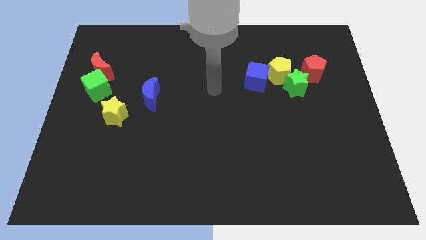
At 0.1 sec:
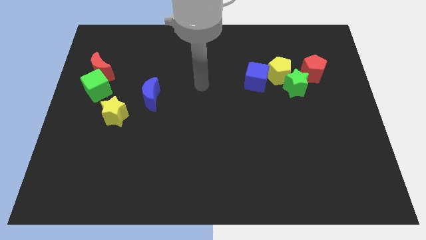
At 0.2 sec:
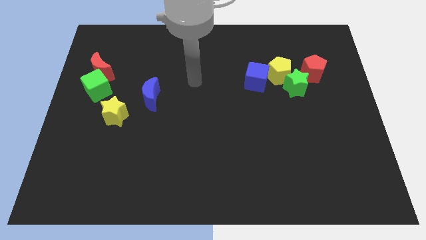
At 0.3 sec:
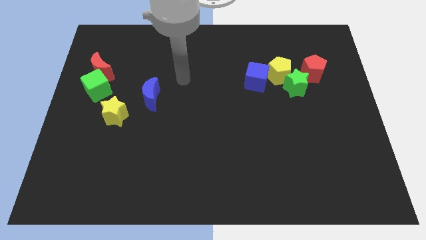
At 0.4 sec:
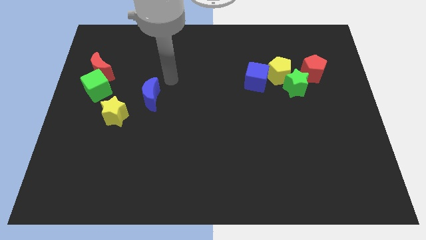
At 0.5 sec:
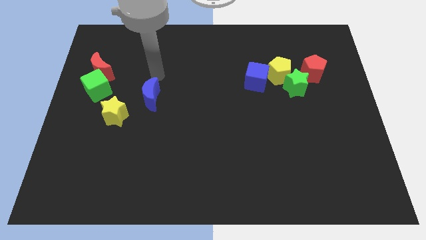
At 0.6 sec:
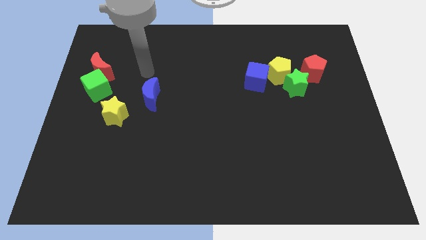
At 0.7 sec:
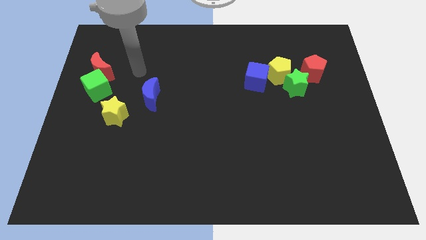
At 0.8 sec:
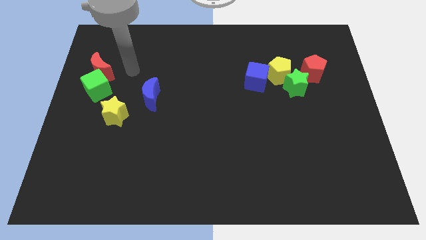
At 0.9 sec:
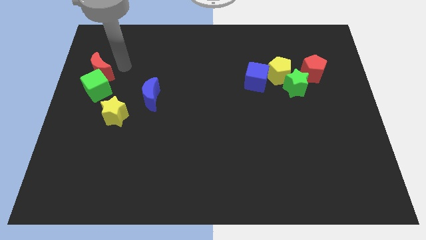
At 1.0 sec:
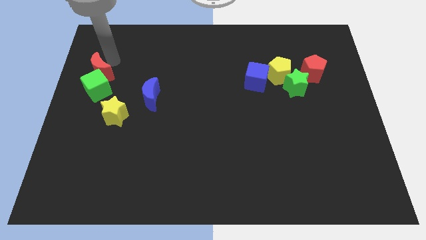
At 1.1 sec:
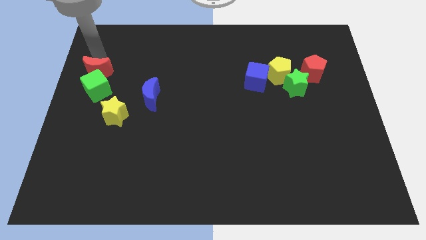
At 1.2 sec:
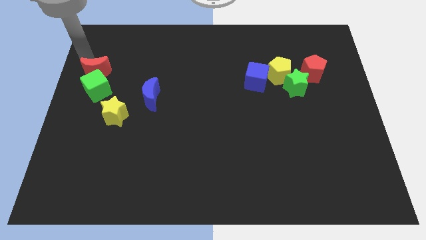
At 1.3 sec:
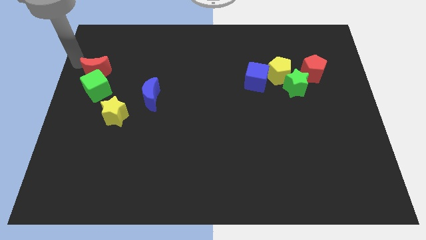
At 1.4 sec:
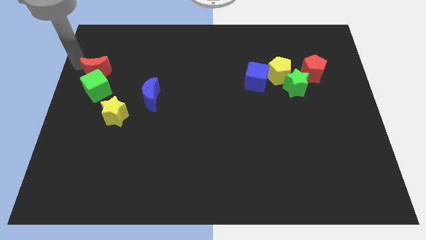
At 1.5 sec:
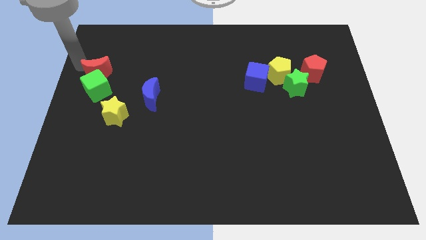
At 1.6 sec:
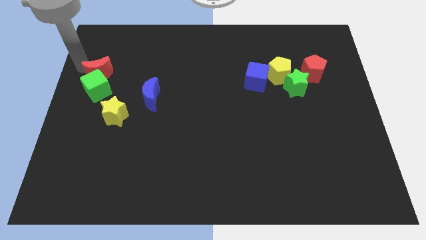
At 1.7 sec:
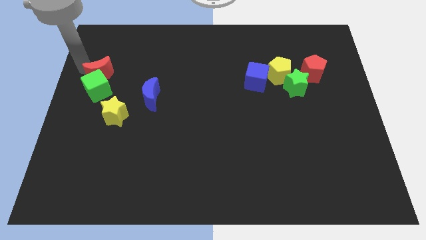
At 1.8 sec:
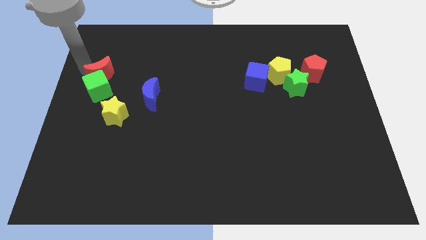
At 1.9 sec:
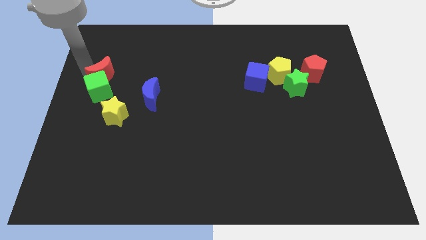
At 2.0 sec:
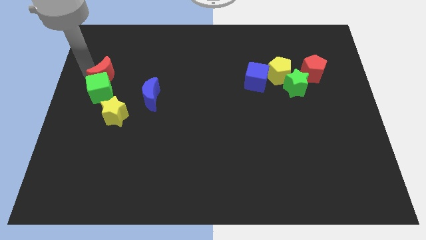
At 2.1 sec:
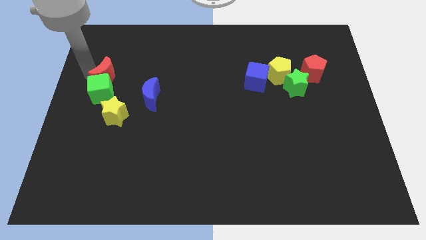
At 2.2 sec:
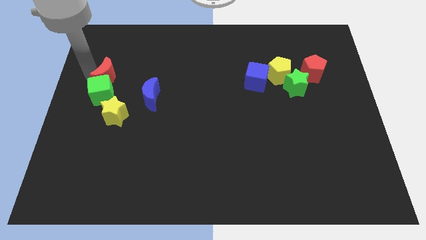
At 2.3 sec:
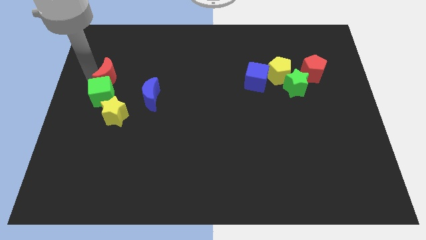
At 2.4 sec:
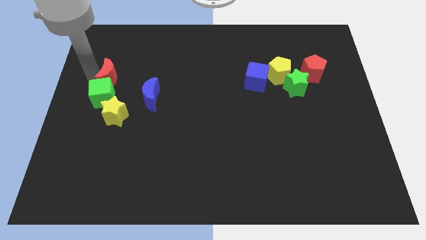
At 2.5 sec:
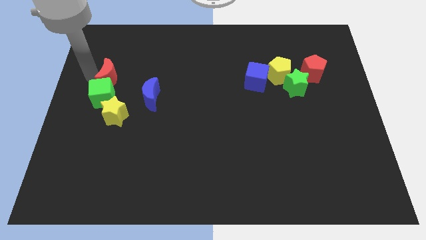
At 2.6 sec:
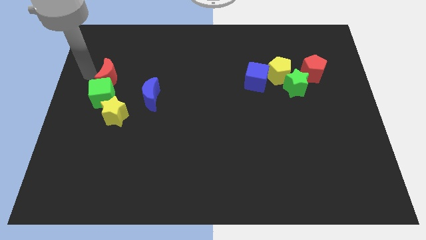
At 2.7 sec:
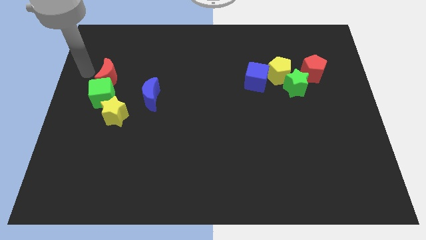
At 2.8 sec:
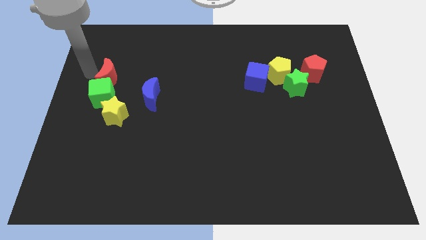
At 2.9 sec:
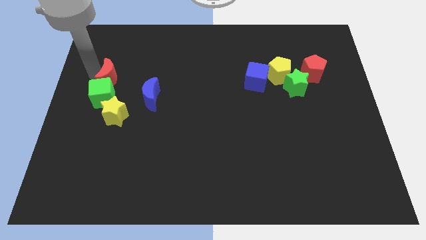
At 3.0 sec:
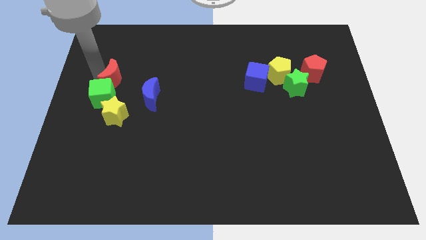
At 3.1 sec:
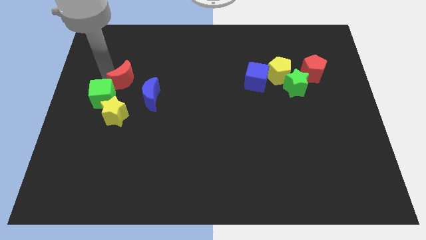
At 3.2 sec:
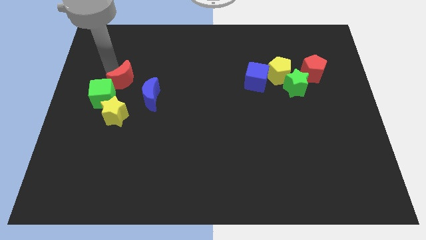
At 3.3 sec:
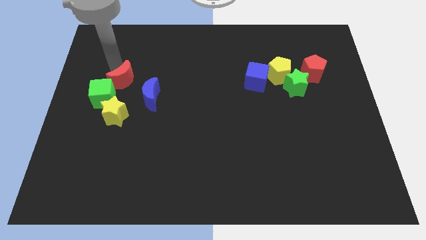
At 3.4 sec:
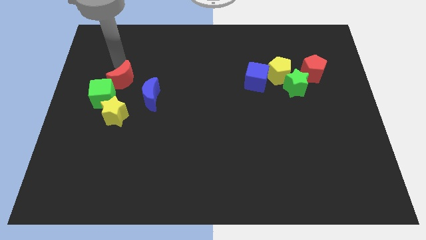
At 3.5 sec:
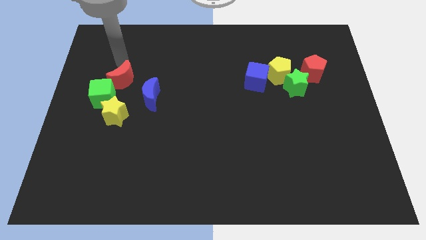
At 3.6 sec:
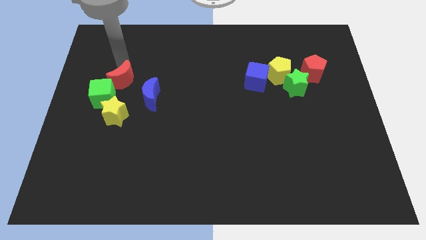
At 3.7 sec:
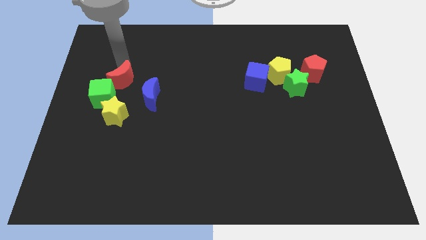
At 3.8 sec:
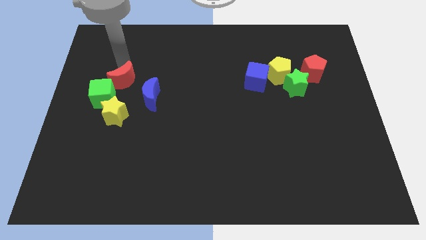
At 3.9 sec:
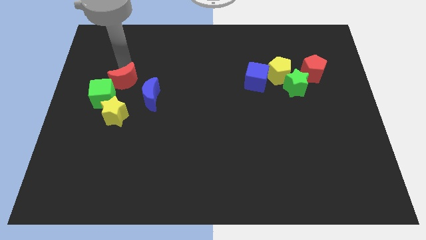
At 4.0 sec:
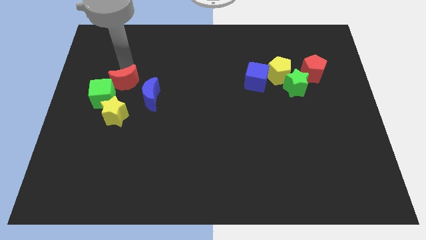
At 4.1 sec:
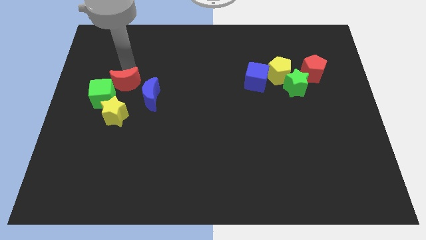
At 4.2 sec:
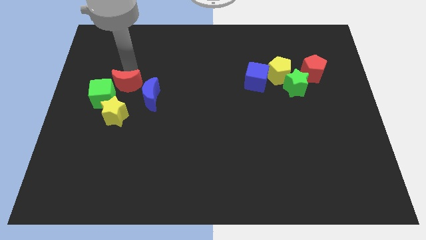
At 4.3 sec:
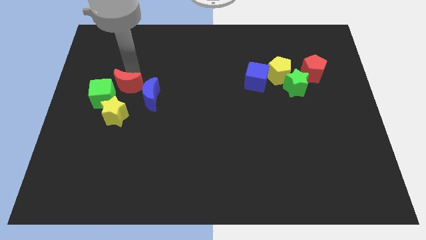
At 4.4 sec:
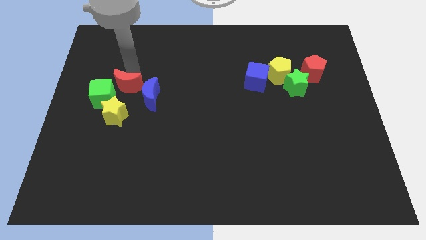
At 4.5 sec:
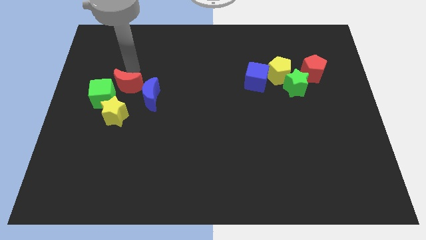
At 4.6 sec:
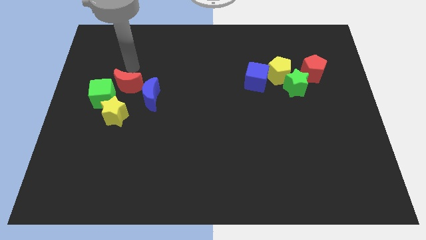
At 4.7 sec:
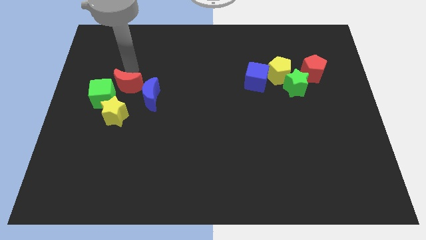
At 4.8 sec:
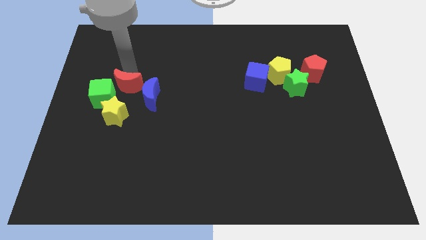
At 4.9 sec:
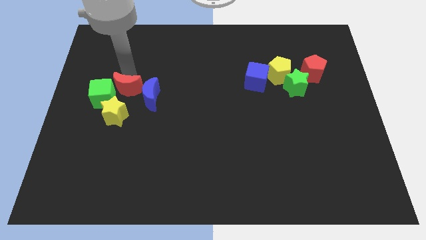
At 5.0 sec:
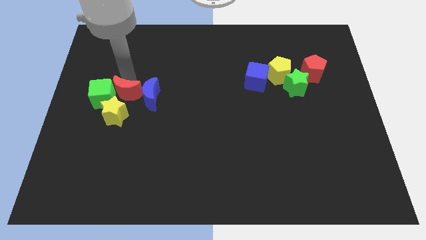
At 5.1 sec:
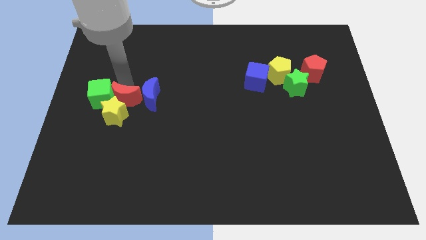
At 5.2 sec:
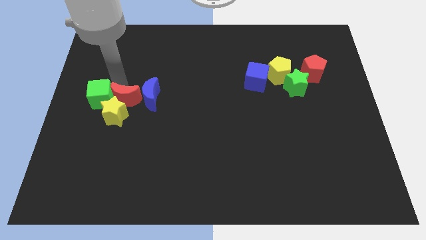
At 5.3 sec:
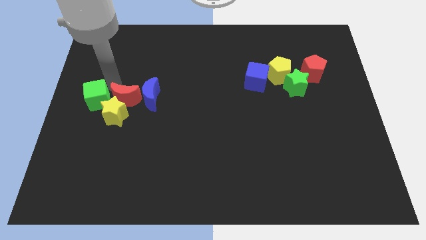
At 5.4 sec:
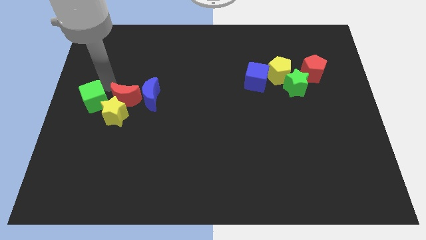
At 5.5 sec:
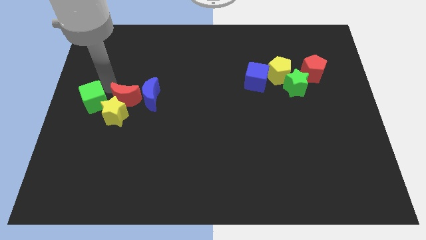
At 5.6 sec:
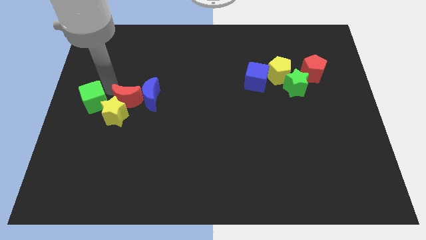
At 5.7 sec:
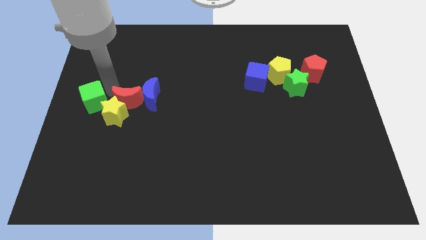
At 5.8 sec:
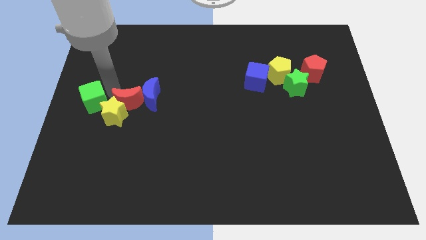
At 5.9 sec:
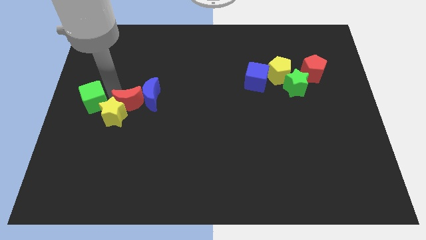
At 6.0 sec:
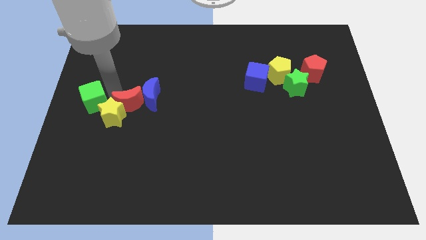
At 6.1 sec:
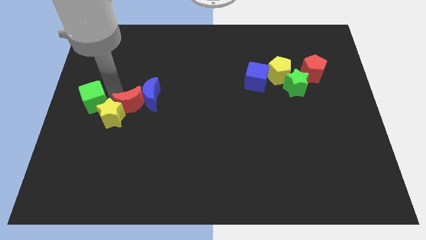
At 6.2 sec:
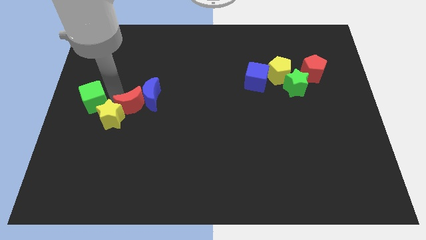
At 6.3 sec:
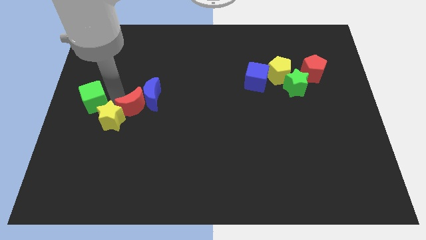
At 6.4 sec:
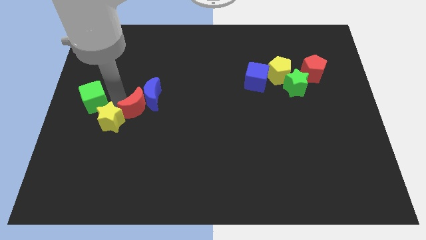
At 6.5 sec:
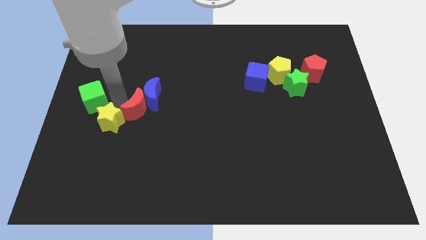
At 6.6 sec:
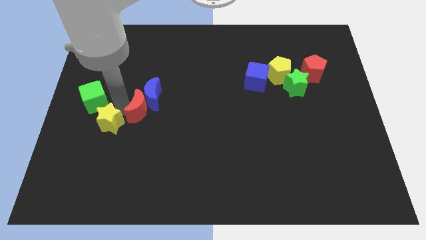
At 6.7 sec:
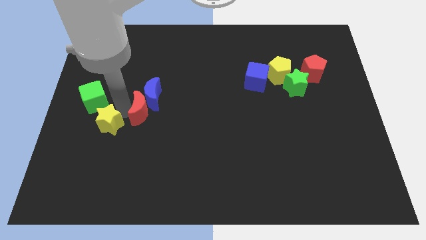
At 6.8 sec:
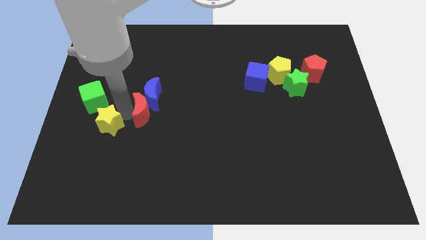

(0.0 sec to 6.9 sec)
put the red moon to the bottom right side of the blue moon
